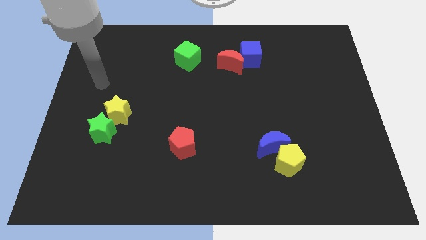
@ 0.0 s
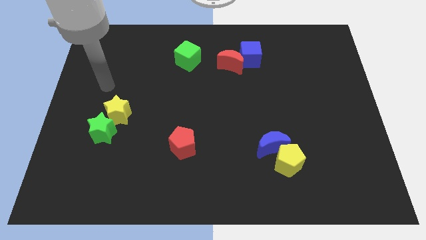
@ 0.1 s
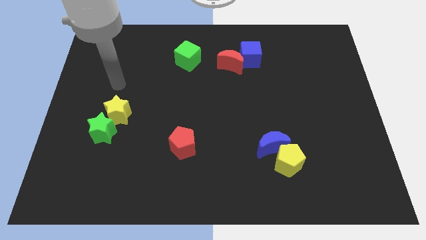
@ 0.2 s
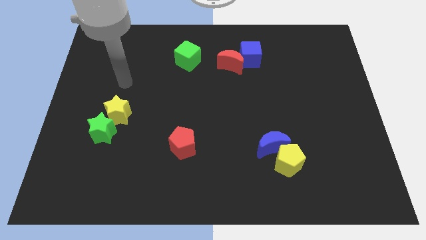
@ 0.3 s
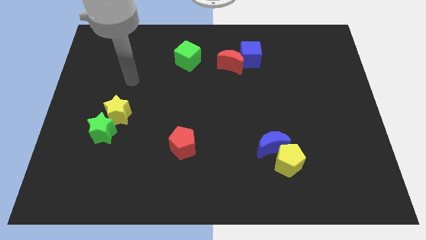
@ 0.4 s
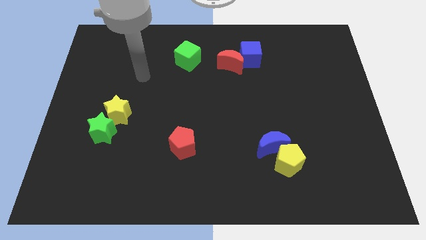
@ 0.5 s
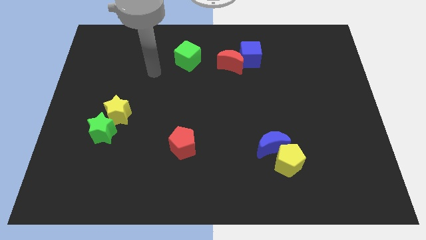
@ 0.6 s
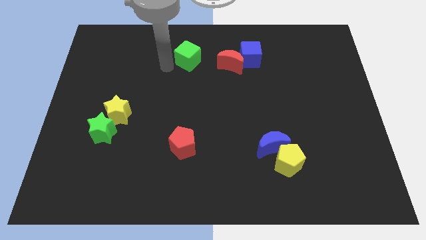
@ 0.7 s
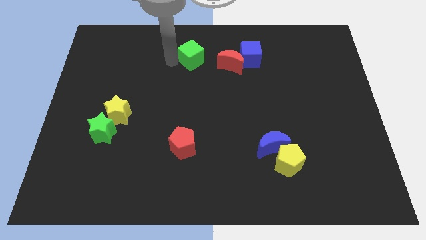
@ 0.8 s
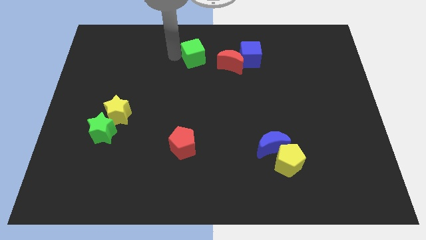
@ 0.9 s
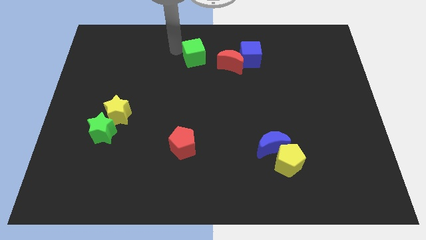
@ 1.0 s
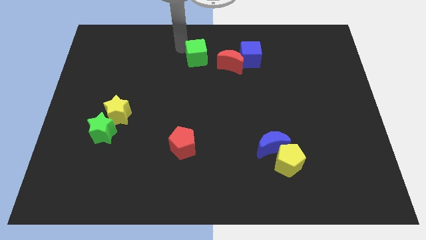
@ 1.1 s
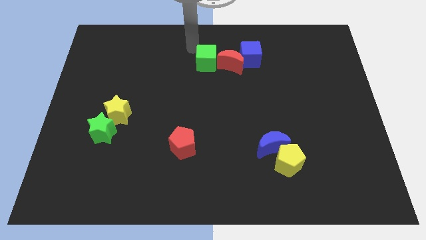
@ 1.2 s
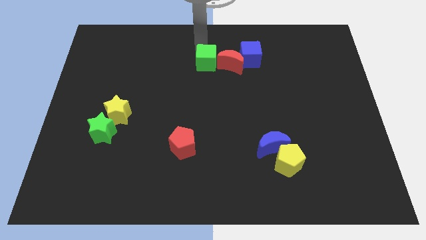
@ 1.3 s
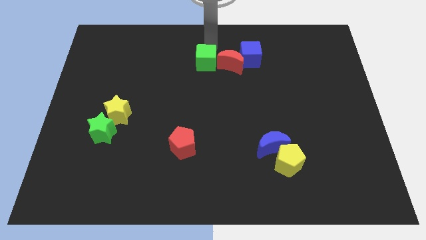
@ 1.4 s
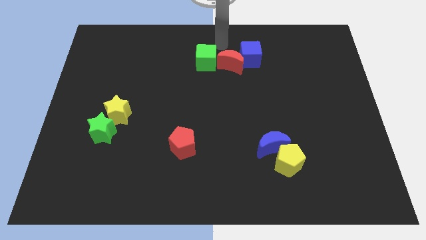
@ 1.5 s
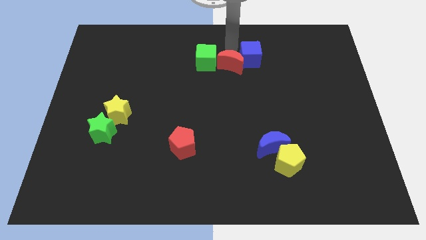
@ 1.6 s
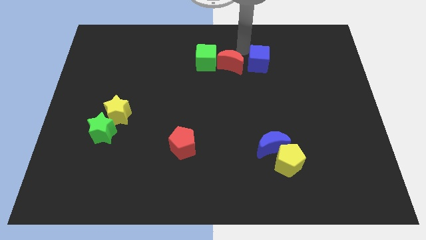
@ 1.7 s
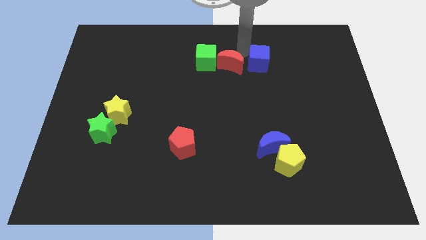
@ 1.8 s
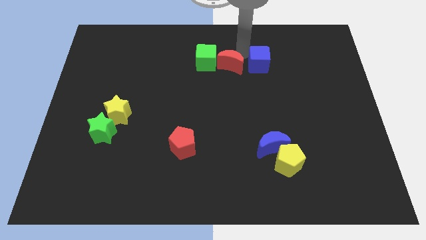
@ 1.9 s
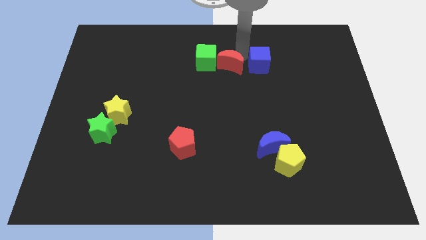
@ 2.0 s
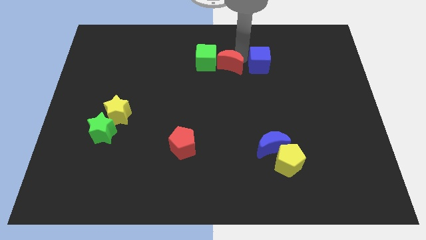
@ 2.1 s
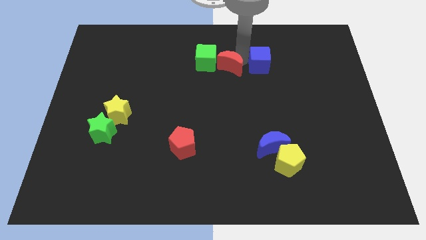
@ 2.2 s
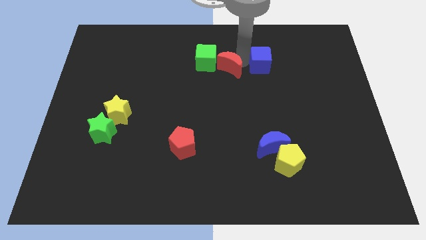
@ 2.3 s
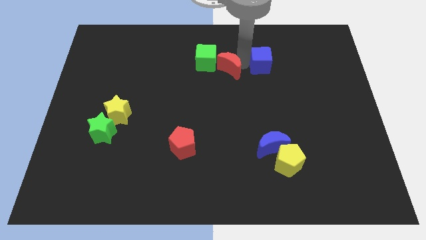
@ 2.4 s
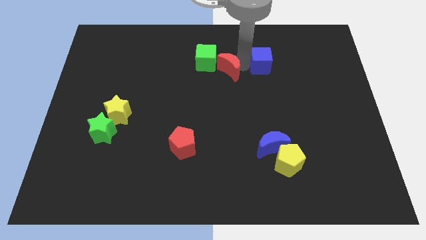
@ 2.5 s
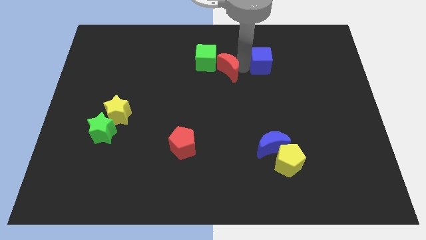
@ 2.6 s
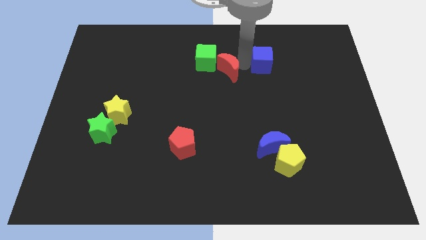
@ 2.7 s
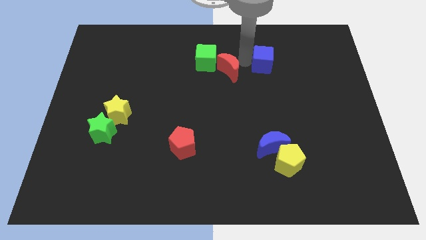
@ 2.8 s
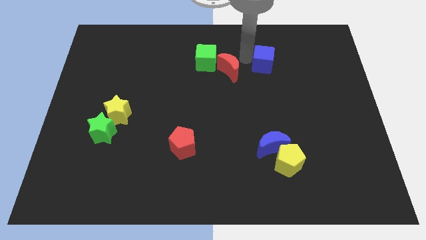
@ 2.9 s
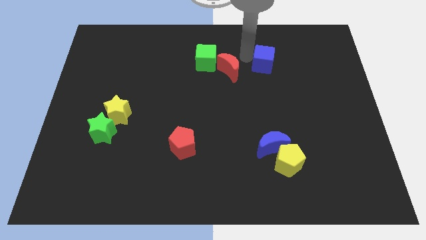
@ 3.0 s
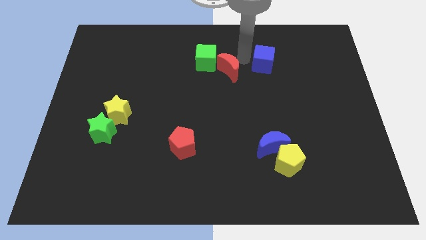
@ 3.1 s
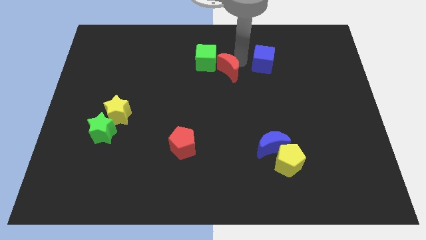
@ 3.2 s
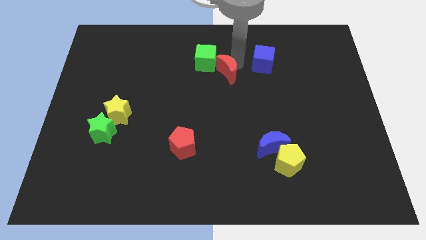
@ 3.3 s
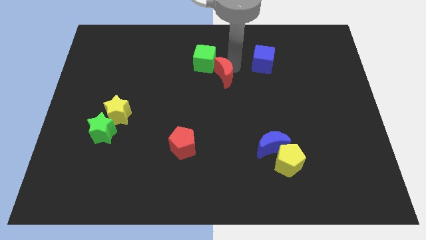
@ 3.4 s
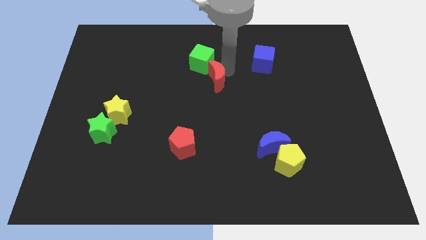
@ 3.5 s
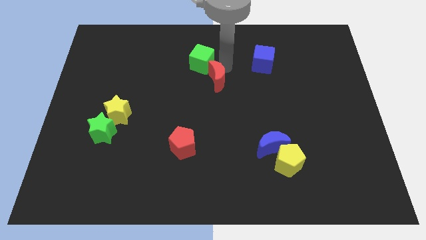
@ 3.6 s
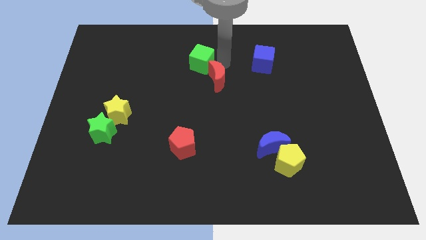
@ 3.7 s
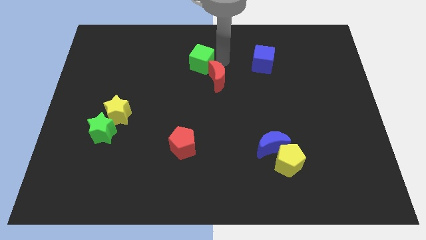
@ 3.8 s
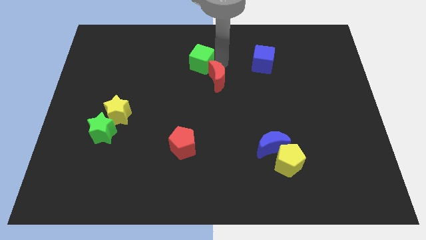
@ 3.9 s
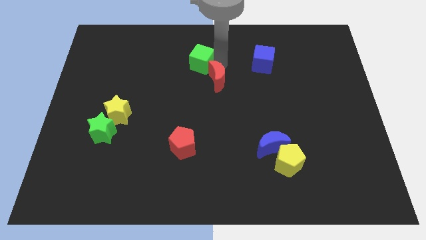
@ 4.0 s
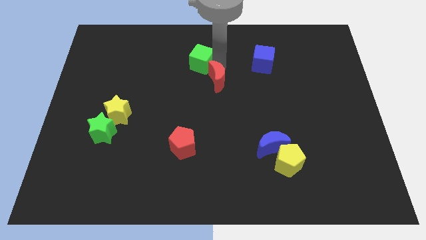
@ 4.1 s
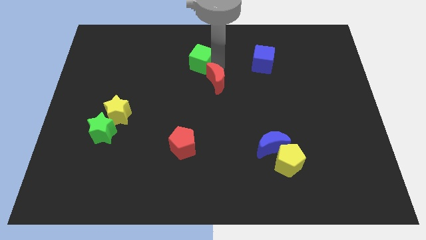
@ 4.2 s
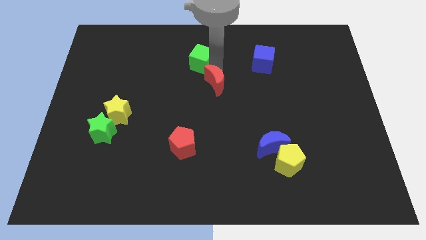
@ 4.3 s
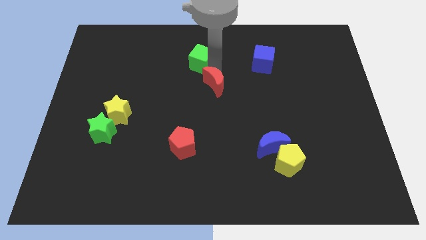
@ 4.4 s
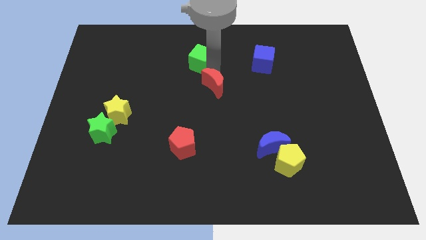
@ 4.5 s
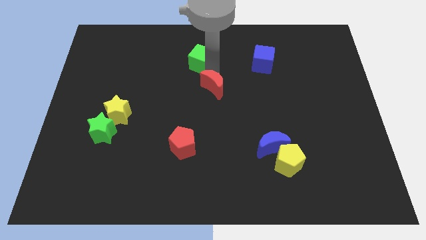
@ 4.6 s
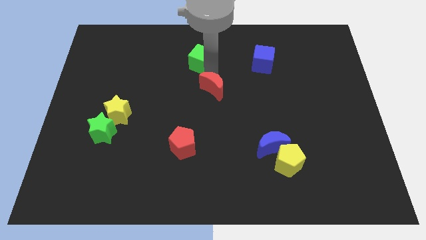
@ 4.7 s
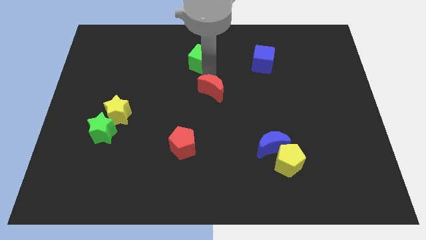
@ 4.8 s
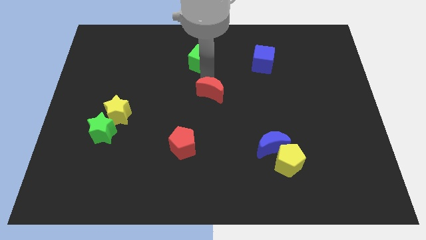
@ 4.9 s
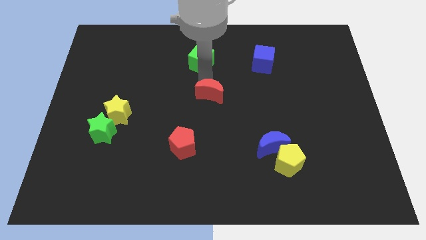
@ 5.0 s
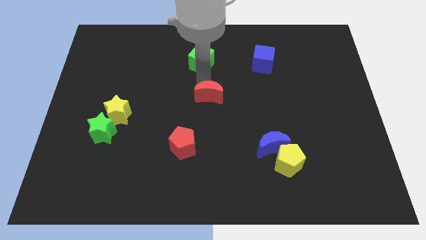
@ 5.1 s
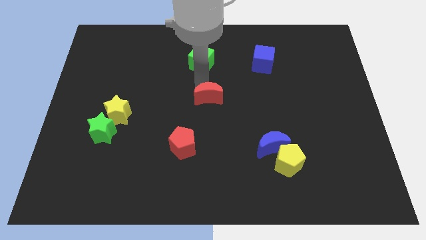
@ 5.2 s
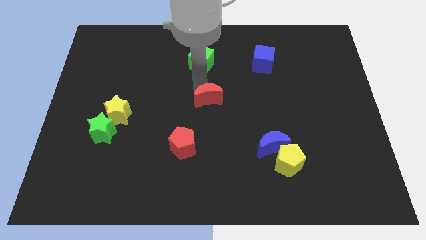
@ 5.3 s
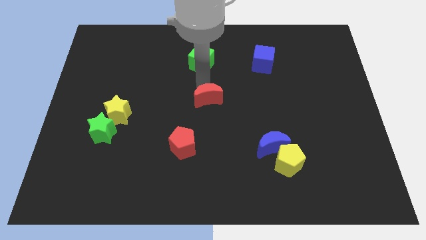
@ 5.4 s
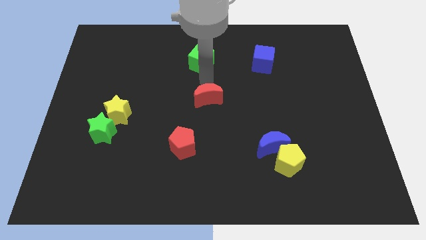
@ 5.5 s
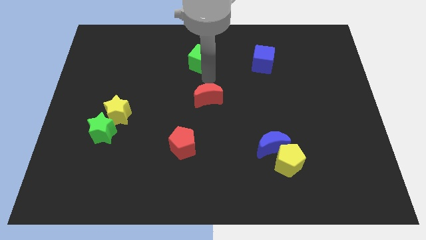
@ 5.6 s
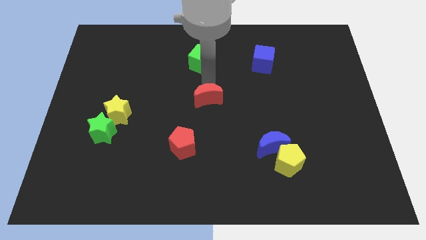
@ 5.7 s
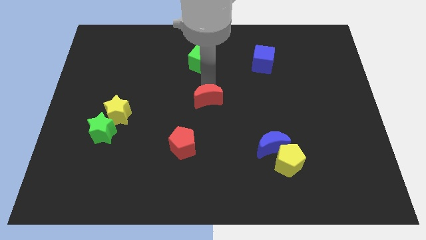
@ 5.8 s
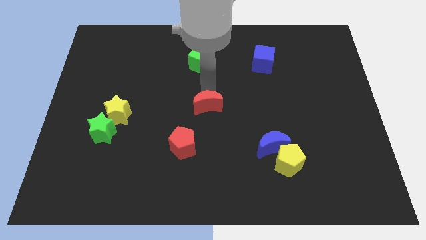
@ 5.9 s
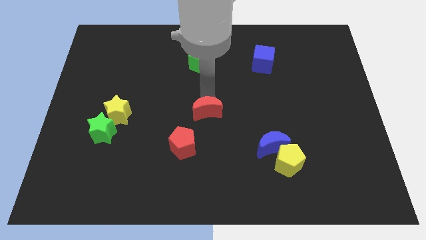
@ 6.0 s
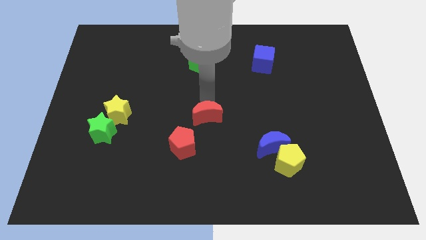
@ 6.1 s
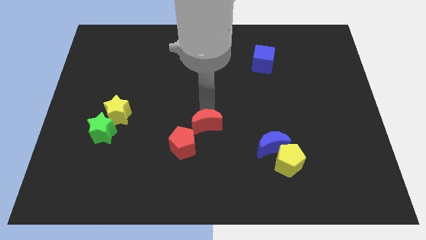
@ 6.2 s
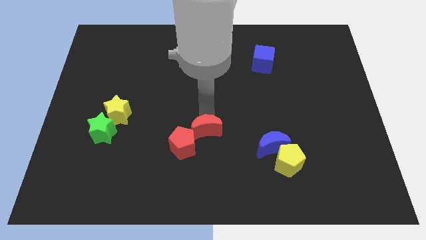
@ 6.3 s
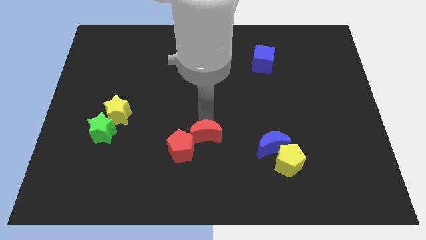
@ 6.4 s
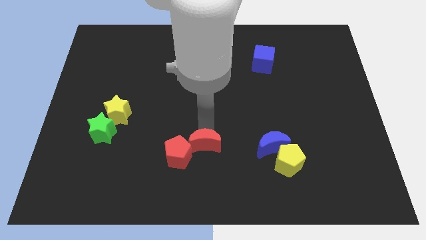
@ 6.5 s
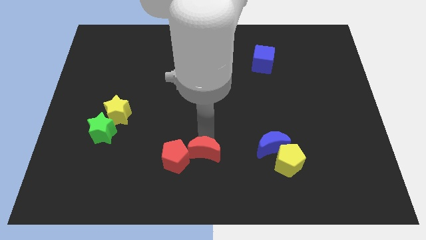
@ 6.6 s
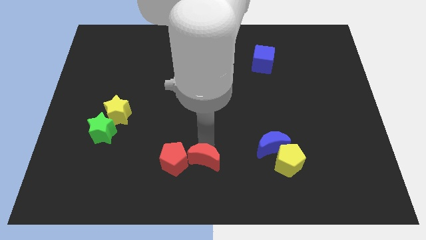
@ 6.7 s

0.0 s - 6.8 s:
put the red moon diagonally down and to the right of the red pentagon

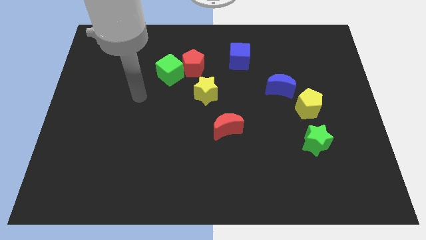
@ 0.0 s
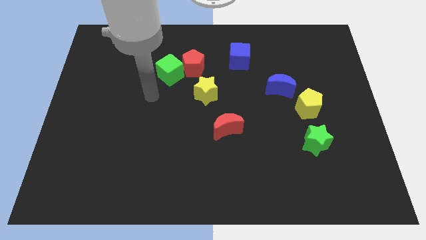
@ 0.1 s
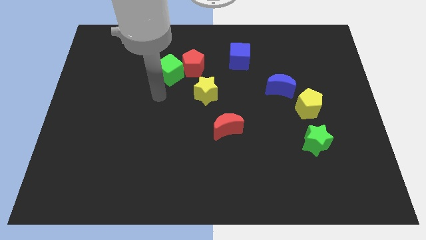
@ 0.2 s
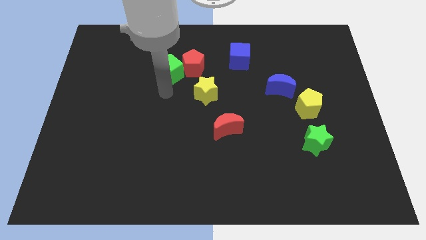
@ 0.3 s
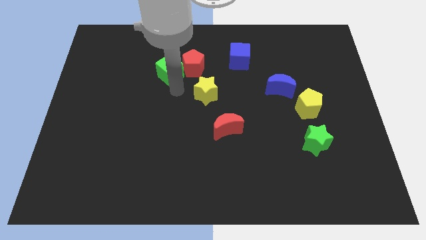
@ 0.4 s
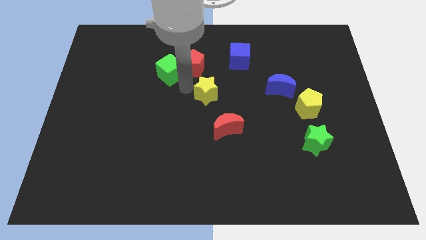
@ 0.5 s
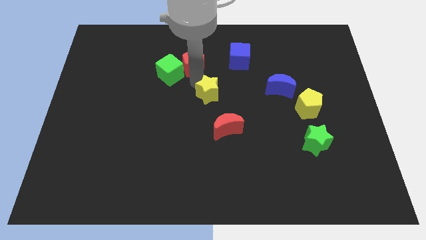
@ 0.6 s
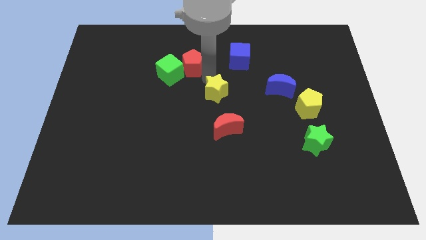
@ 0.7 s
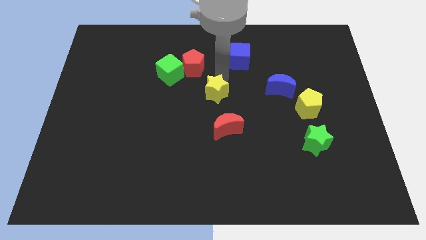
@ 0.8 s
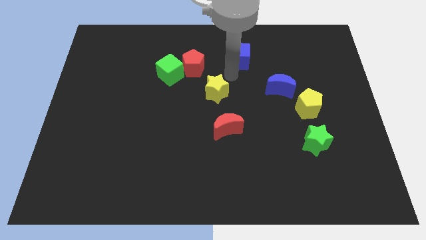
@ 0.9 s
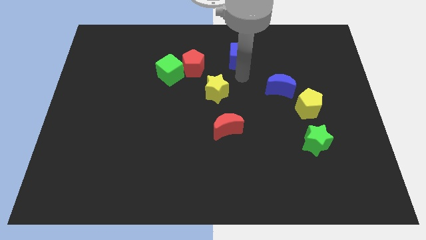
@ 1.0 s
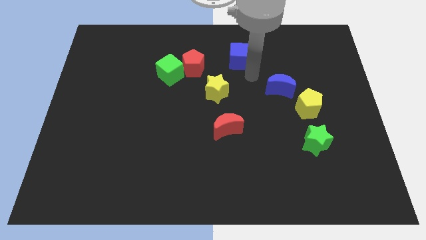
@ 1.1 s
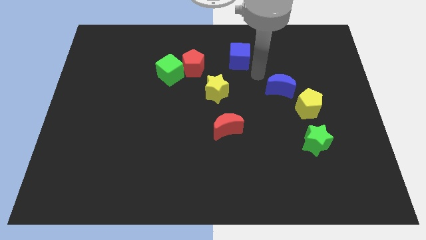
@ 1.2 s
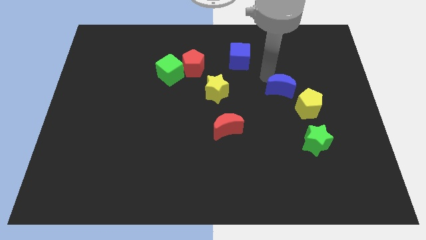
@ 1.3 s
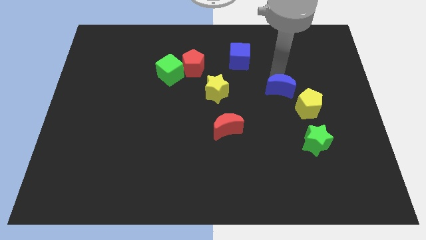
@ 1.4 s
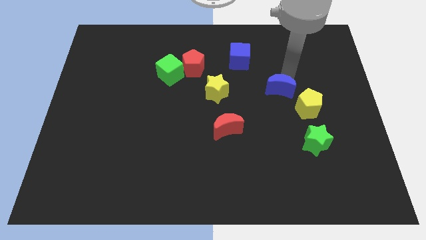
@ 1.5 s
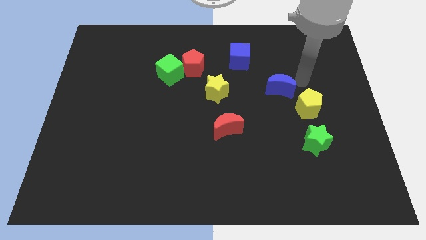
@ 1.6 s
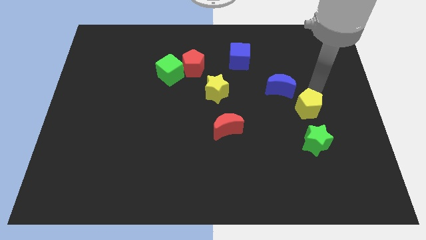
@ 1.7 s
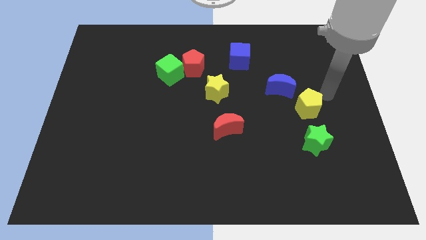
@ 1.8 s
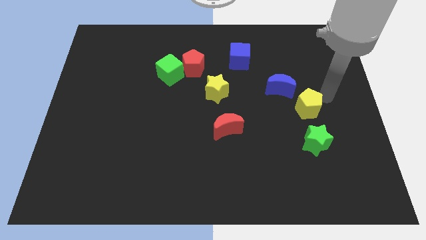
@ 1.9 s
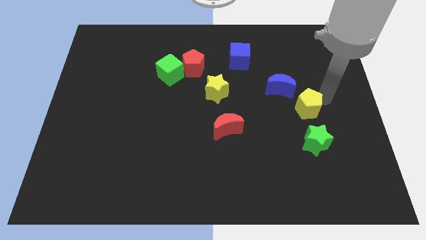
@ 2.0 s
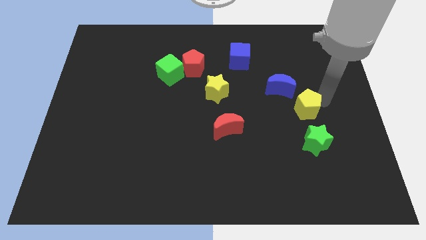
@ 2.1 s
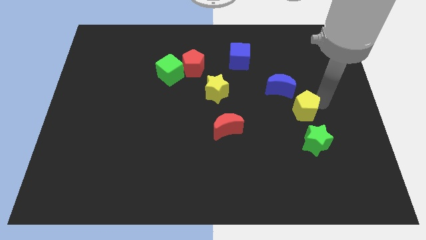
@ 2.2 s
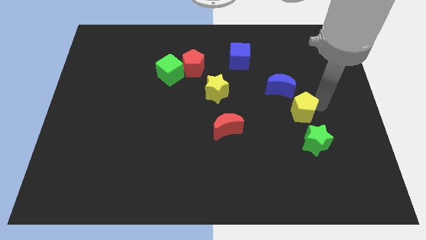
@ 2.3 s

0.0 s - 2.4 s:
slide the yellow pentagon to the bottom side of the blue moon
